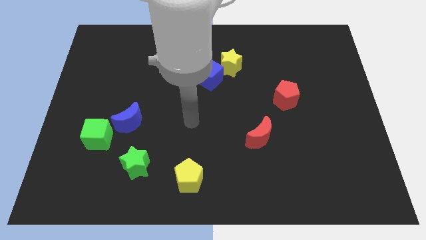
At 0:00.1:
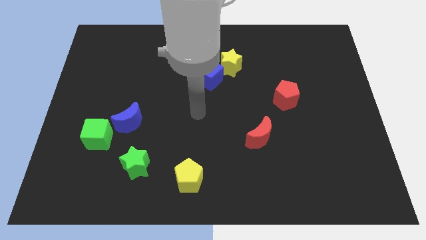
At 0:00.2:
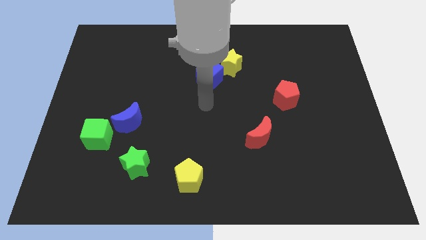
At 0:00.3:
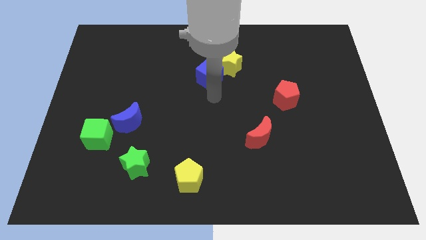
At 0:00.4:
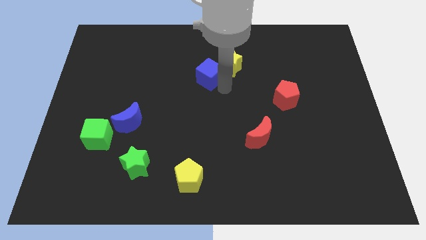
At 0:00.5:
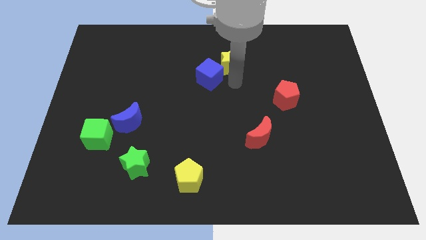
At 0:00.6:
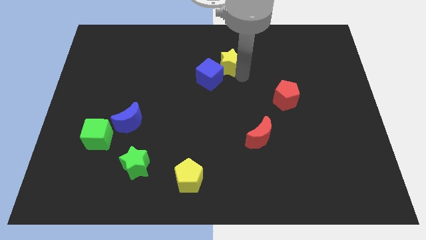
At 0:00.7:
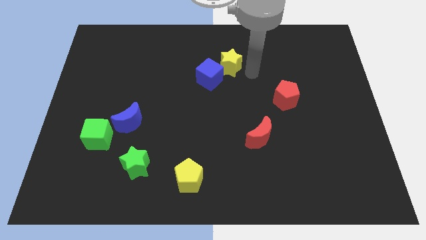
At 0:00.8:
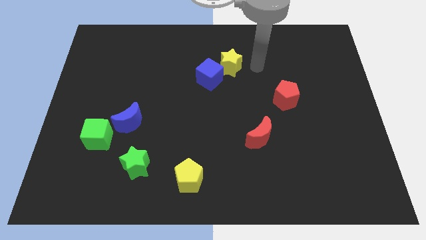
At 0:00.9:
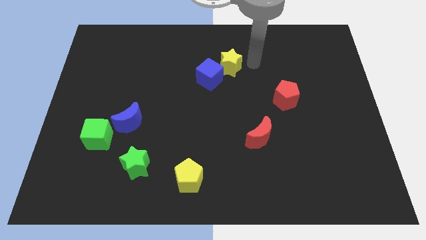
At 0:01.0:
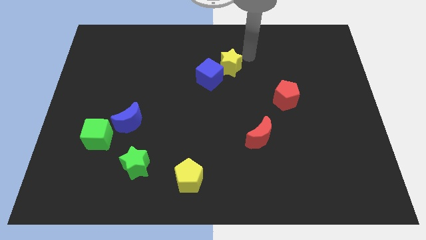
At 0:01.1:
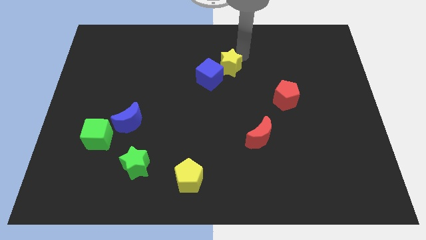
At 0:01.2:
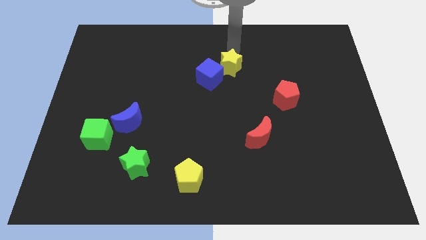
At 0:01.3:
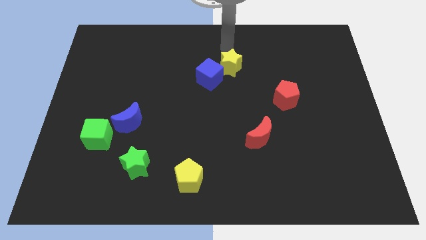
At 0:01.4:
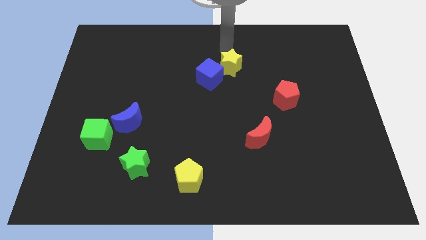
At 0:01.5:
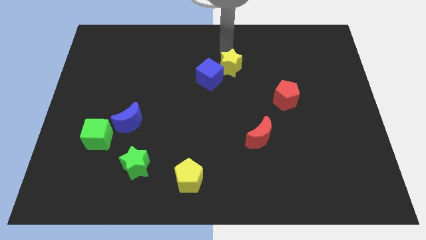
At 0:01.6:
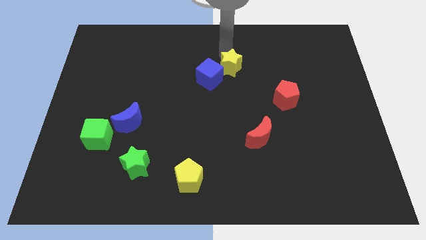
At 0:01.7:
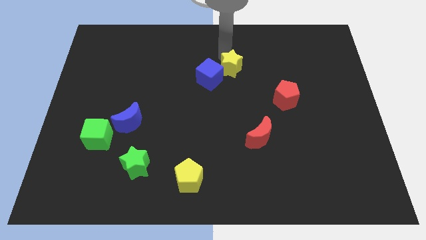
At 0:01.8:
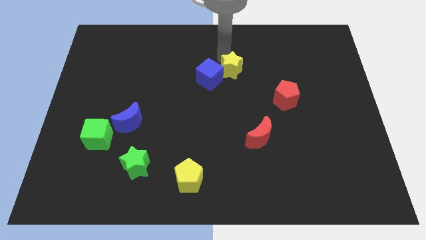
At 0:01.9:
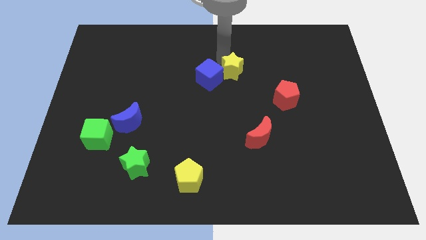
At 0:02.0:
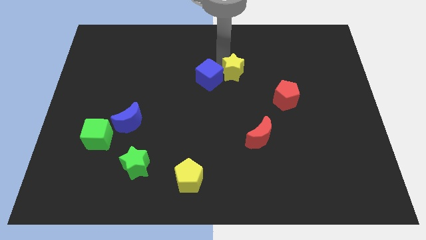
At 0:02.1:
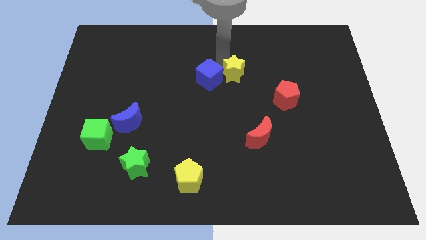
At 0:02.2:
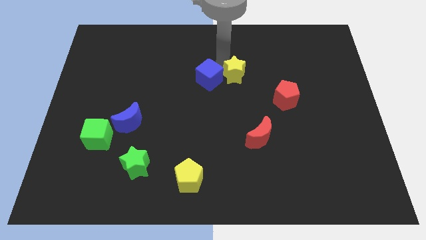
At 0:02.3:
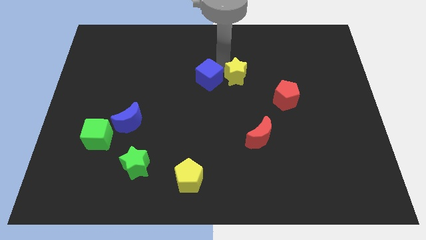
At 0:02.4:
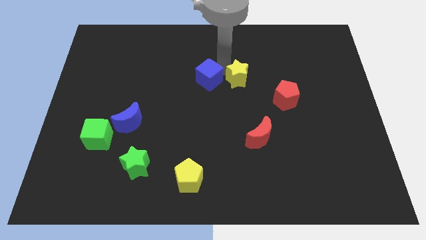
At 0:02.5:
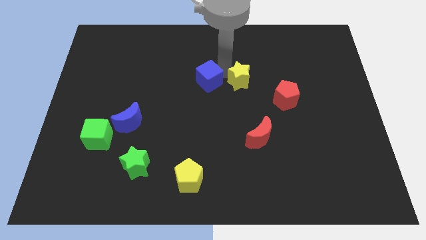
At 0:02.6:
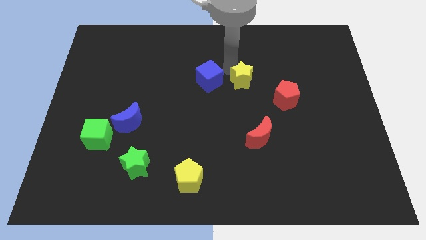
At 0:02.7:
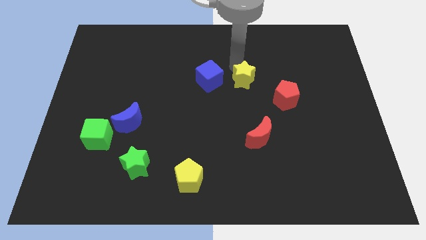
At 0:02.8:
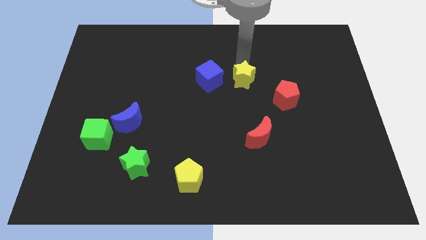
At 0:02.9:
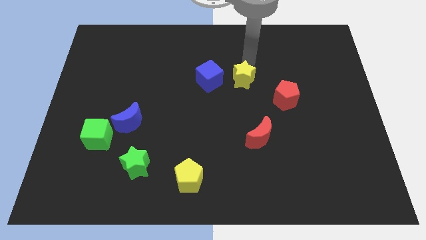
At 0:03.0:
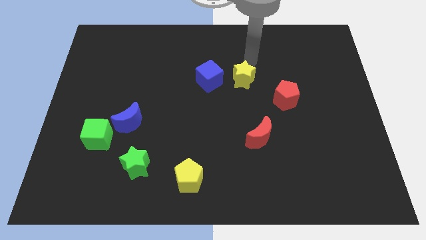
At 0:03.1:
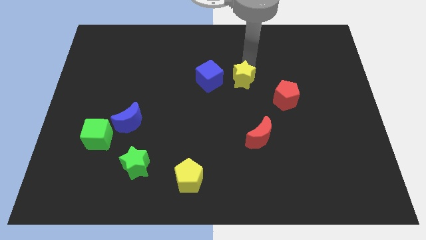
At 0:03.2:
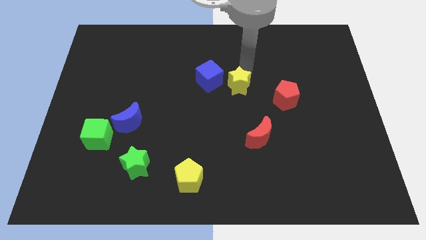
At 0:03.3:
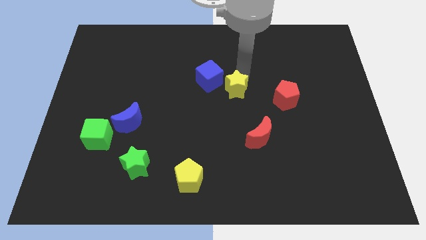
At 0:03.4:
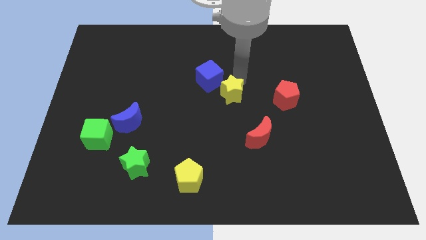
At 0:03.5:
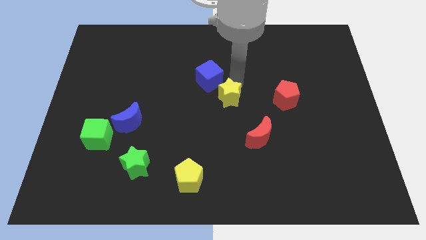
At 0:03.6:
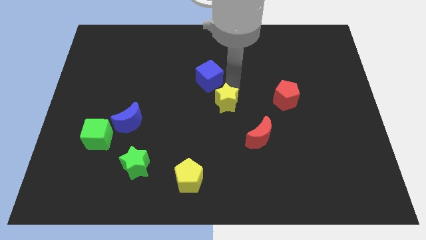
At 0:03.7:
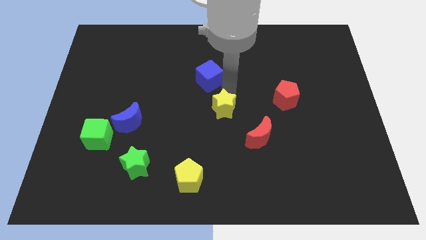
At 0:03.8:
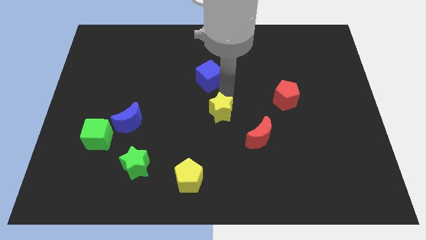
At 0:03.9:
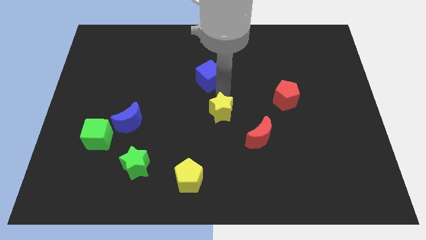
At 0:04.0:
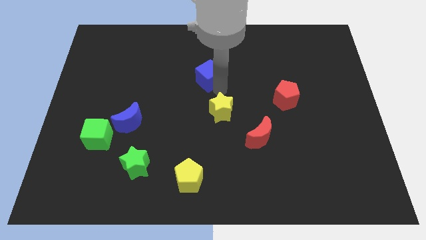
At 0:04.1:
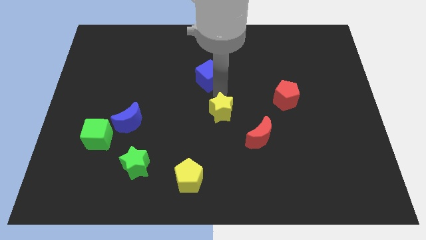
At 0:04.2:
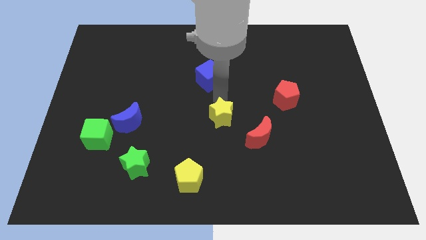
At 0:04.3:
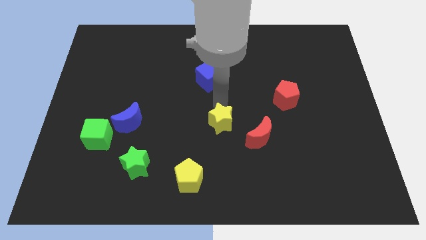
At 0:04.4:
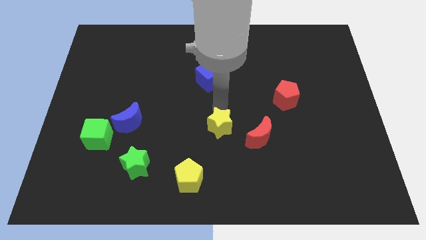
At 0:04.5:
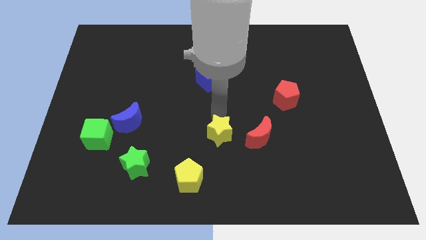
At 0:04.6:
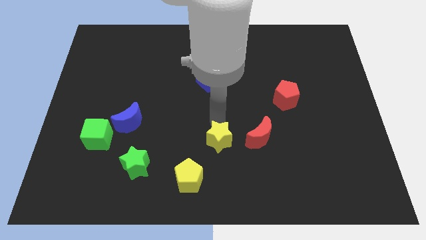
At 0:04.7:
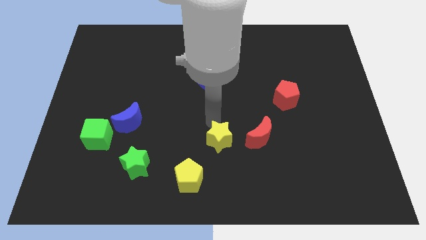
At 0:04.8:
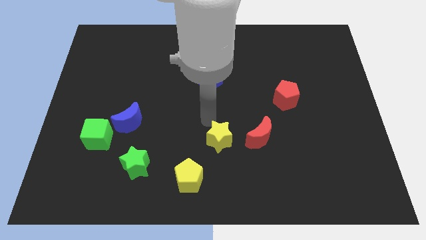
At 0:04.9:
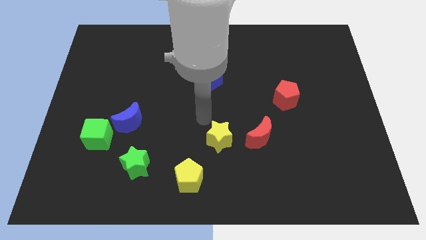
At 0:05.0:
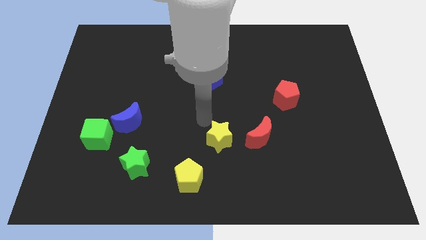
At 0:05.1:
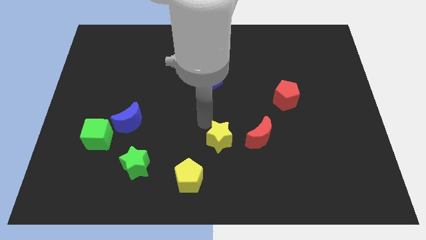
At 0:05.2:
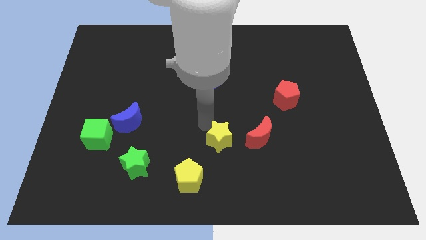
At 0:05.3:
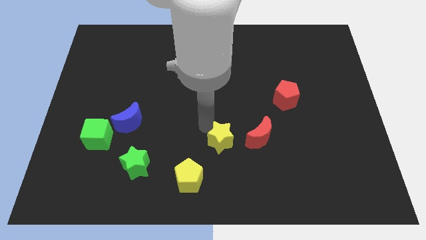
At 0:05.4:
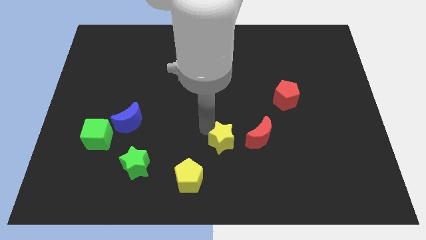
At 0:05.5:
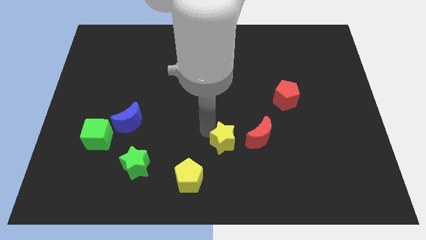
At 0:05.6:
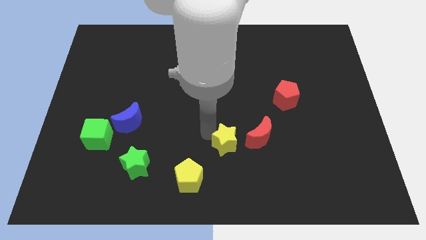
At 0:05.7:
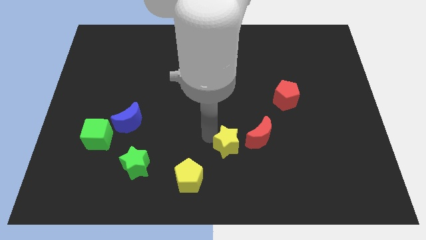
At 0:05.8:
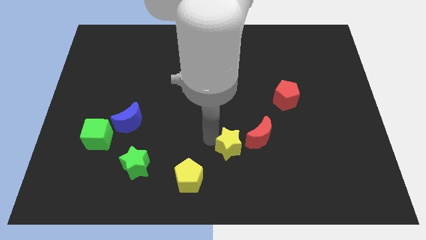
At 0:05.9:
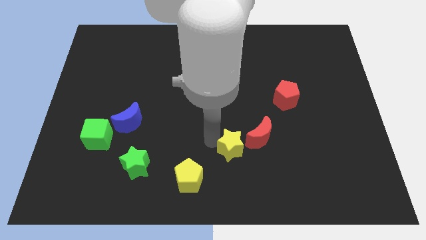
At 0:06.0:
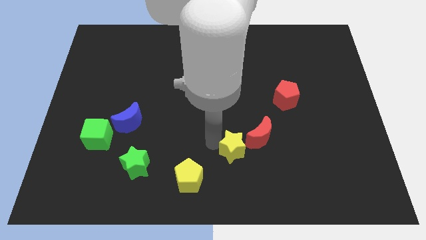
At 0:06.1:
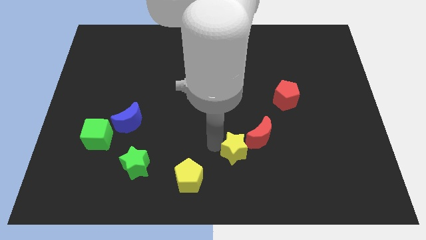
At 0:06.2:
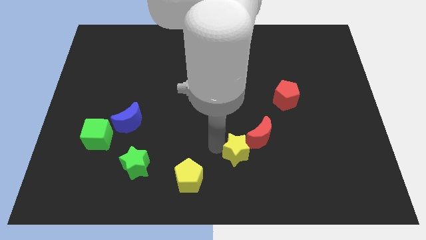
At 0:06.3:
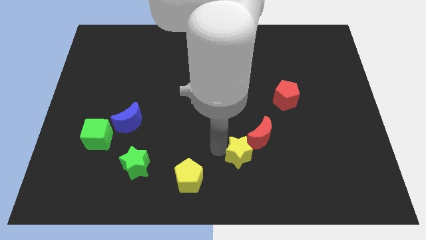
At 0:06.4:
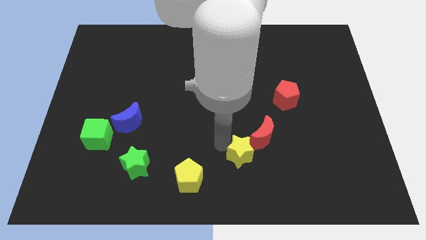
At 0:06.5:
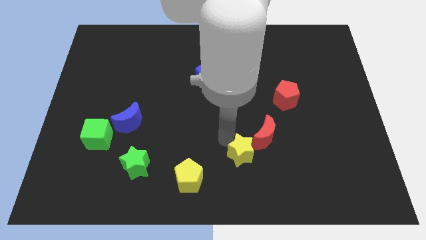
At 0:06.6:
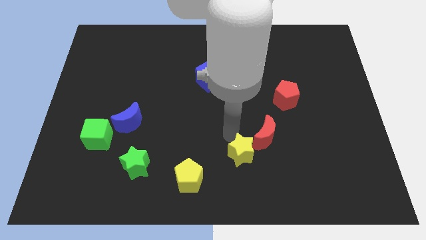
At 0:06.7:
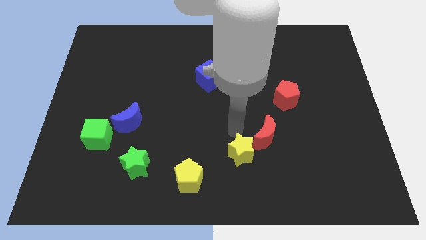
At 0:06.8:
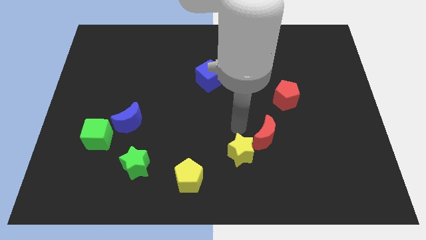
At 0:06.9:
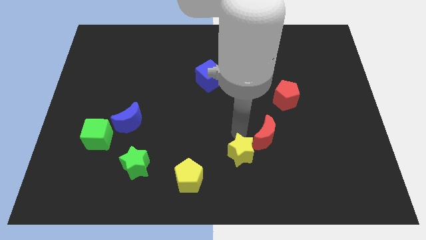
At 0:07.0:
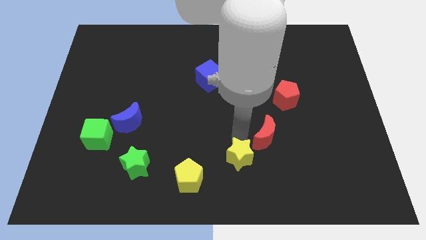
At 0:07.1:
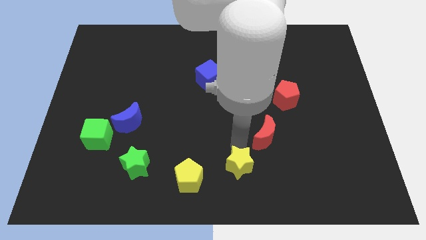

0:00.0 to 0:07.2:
slide the yellow star to the right of the yellow pentagon
